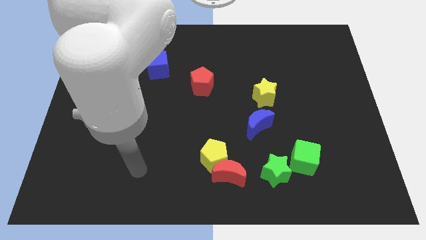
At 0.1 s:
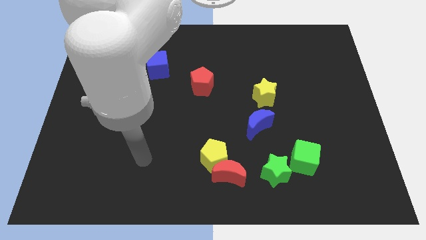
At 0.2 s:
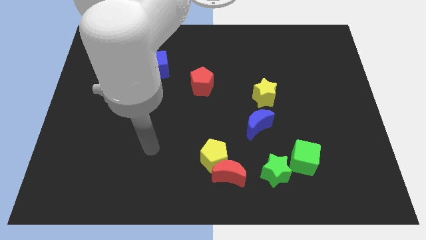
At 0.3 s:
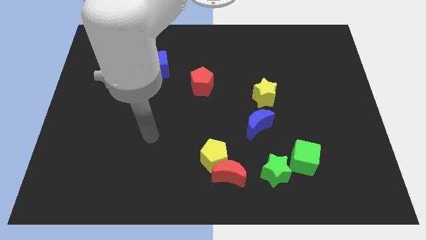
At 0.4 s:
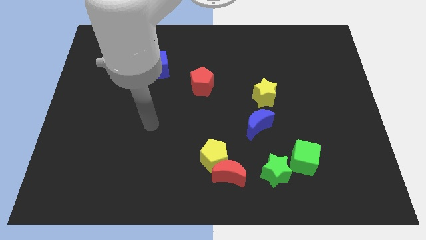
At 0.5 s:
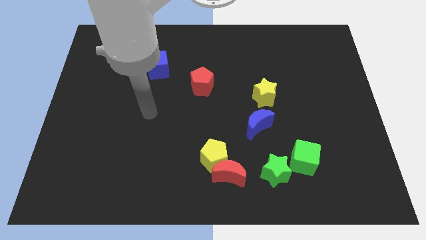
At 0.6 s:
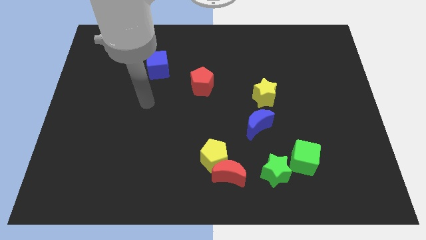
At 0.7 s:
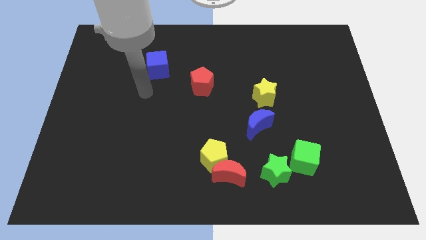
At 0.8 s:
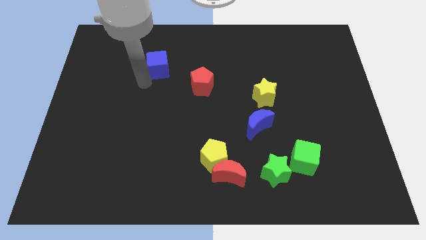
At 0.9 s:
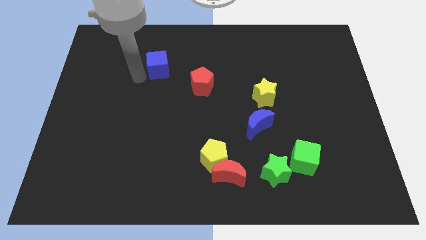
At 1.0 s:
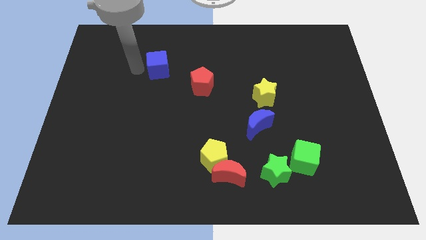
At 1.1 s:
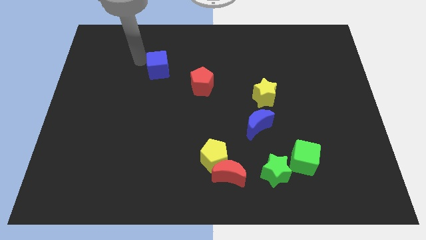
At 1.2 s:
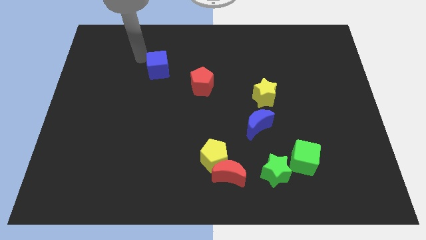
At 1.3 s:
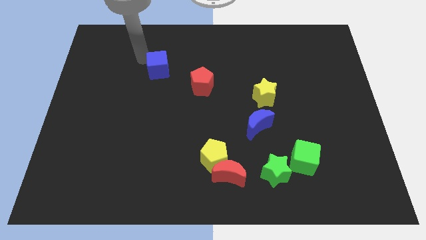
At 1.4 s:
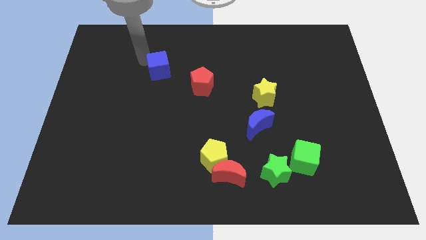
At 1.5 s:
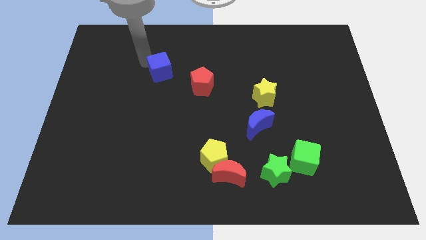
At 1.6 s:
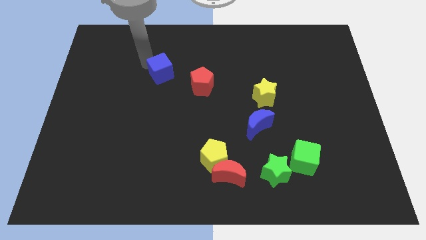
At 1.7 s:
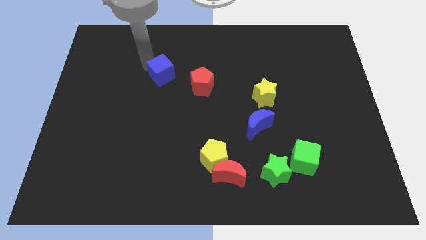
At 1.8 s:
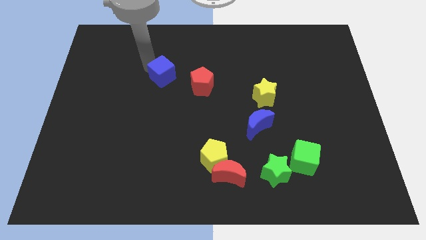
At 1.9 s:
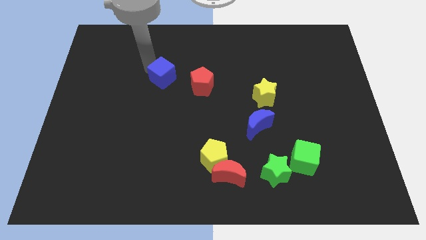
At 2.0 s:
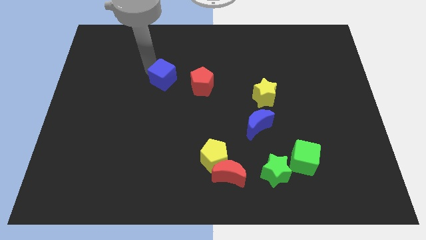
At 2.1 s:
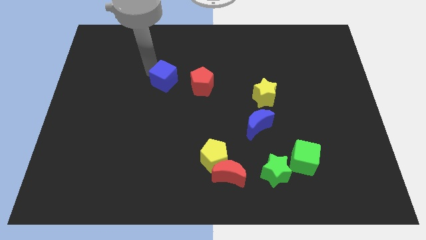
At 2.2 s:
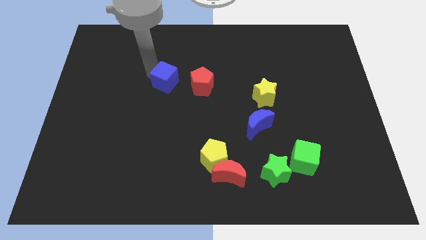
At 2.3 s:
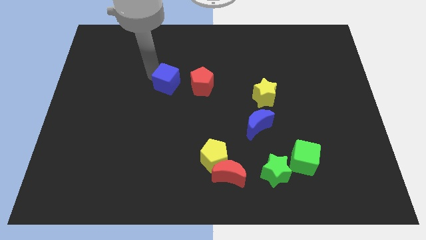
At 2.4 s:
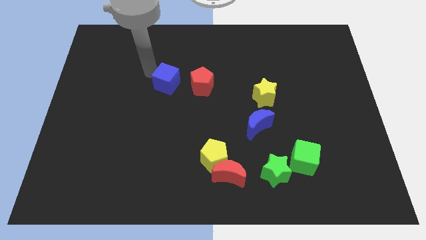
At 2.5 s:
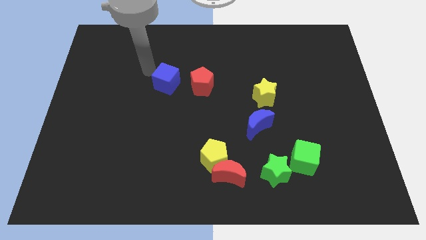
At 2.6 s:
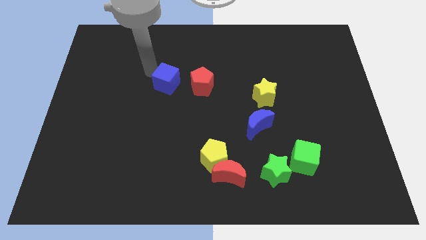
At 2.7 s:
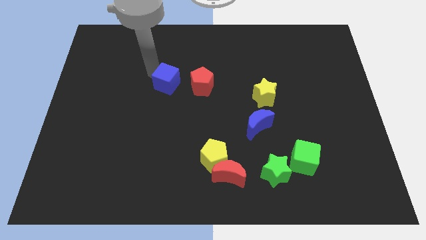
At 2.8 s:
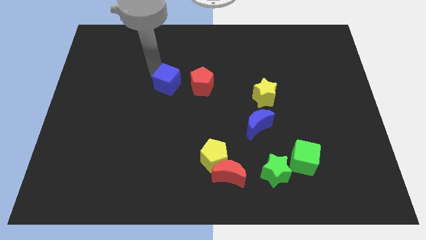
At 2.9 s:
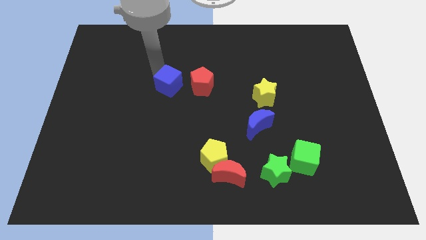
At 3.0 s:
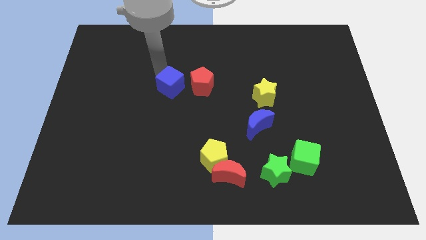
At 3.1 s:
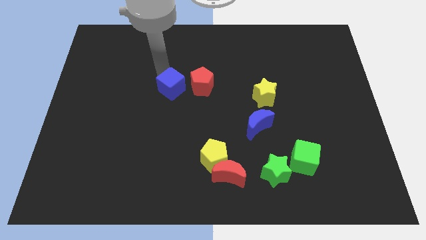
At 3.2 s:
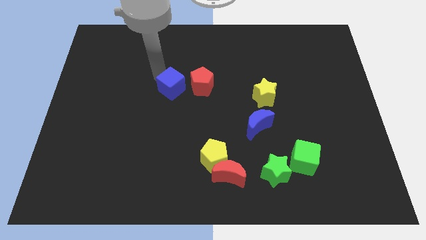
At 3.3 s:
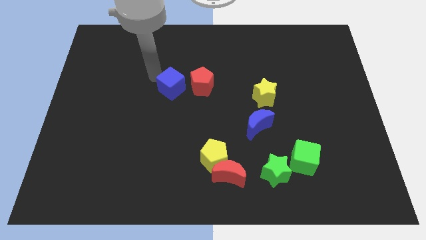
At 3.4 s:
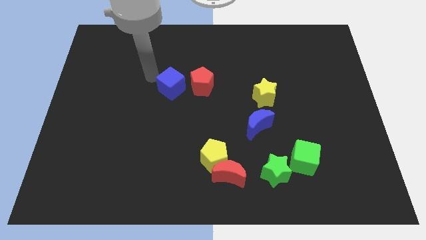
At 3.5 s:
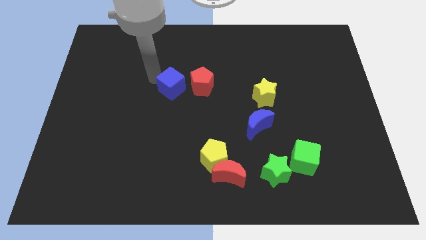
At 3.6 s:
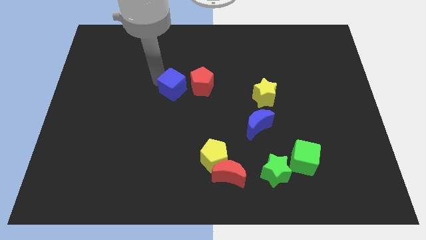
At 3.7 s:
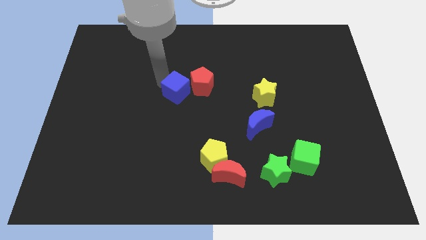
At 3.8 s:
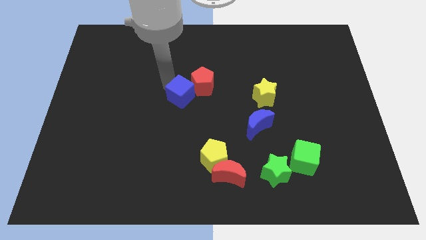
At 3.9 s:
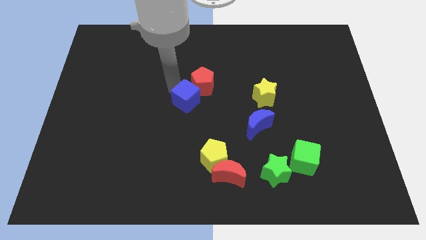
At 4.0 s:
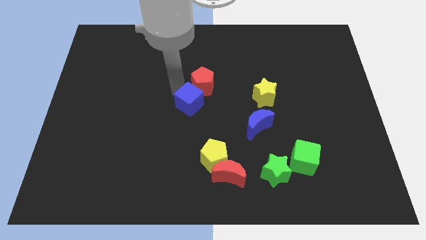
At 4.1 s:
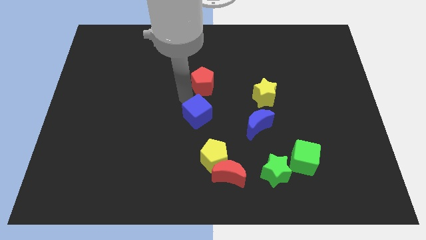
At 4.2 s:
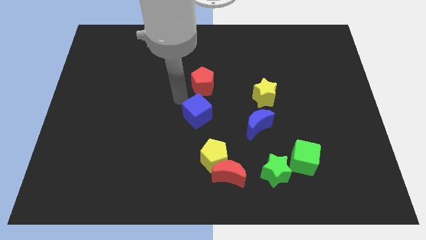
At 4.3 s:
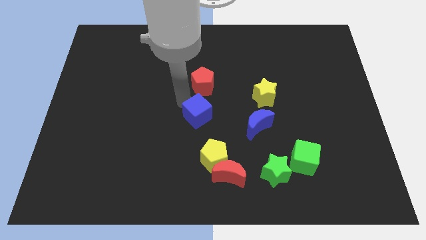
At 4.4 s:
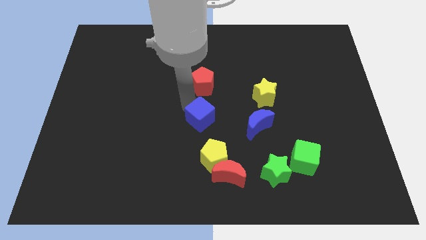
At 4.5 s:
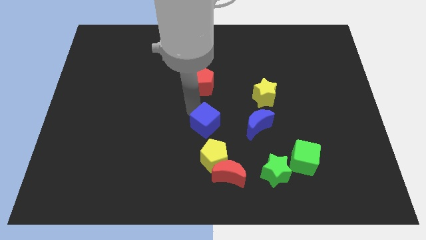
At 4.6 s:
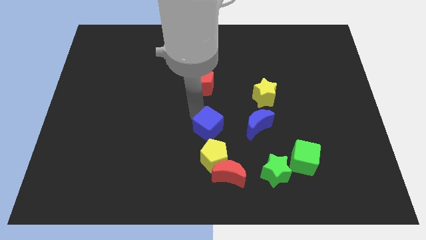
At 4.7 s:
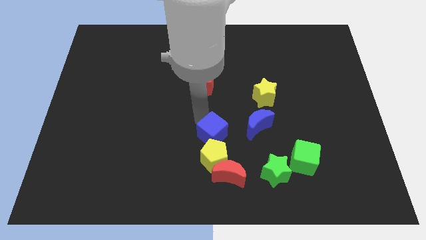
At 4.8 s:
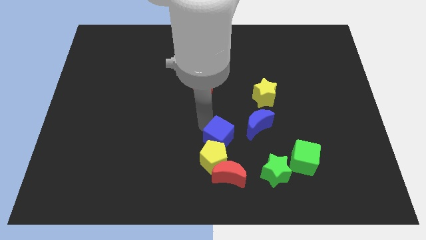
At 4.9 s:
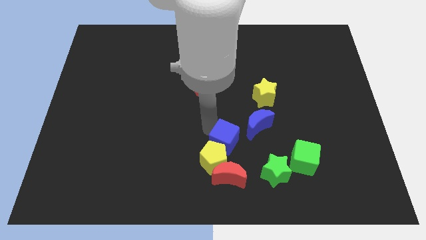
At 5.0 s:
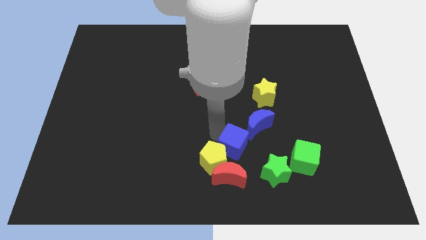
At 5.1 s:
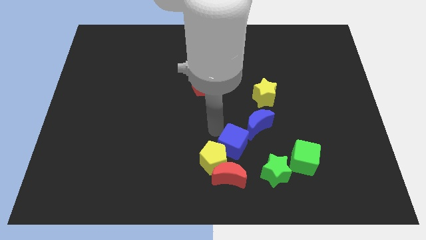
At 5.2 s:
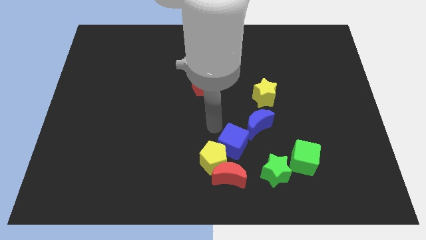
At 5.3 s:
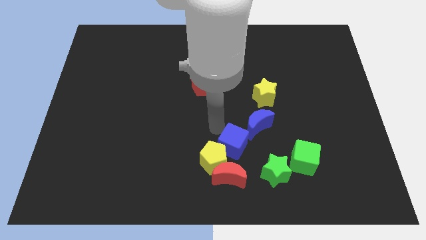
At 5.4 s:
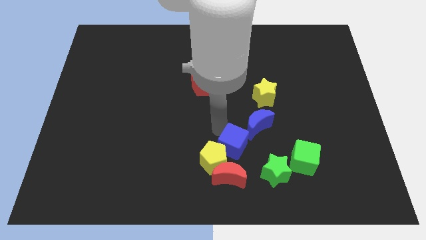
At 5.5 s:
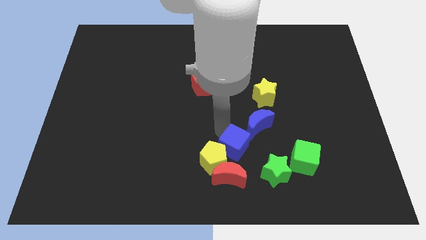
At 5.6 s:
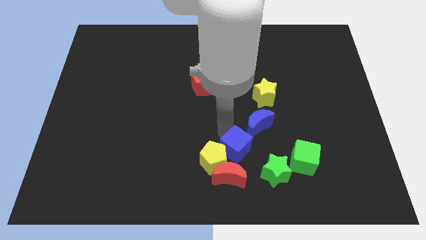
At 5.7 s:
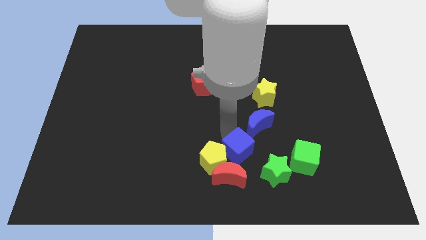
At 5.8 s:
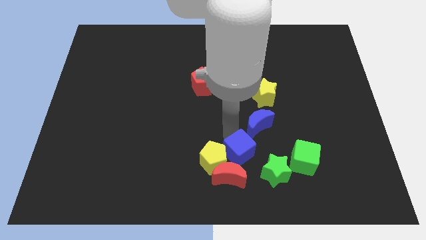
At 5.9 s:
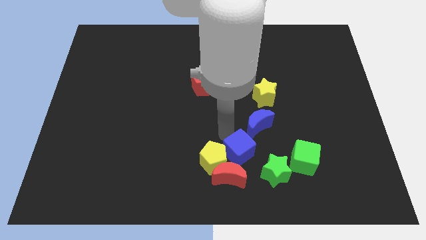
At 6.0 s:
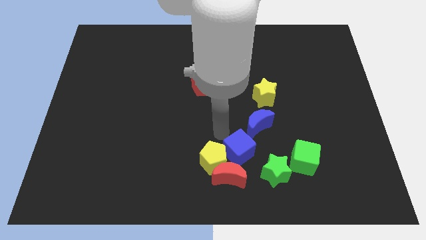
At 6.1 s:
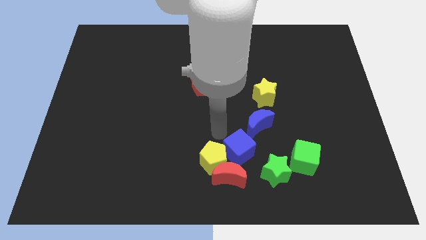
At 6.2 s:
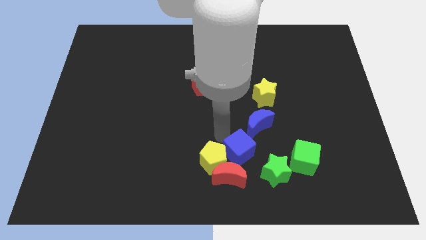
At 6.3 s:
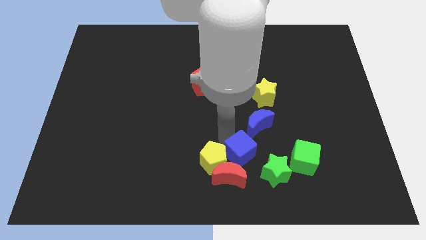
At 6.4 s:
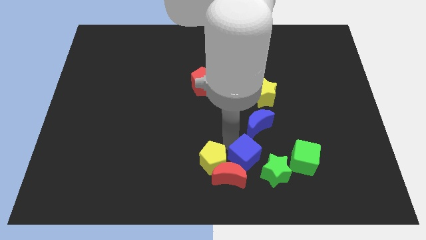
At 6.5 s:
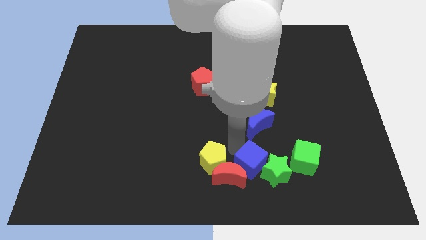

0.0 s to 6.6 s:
move the blue cube next to the green star
